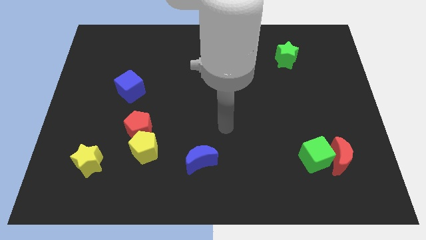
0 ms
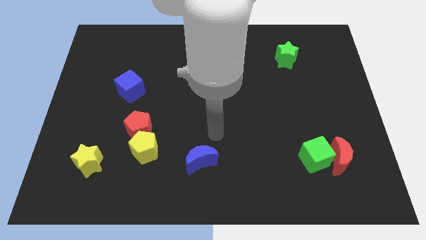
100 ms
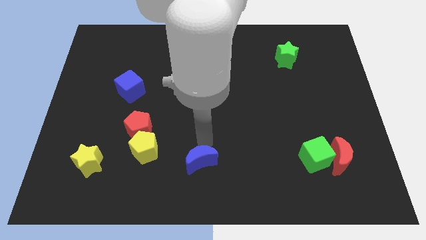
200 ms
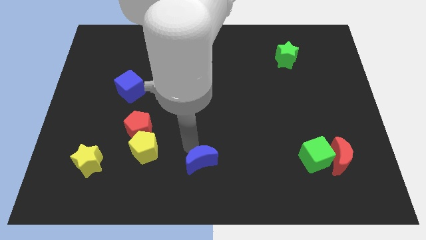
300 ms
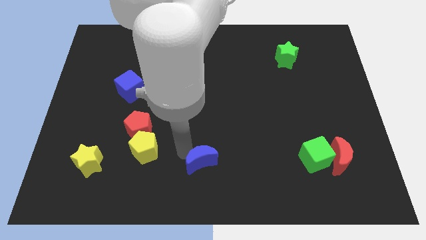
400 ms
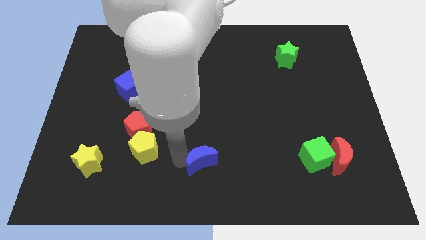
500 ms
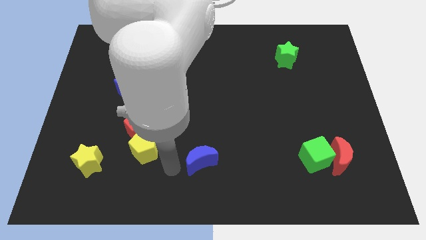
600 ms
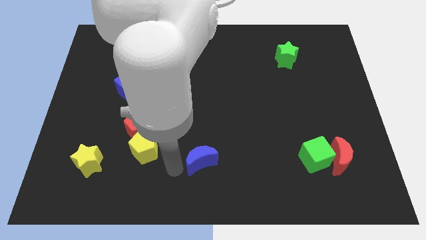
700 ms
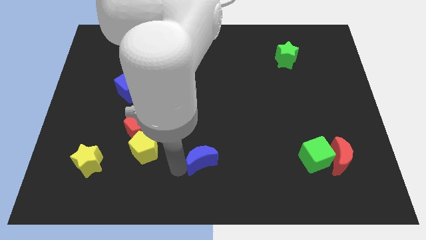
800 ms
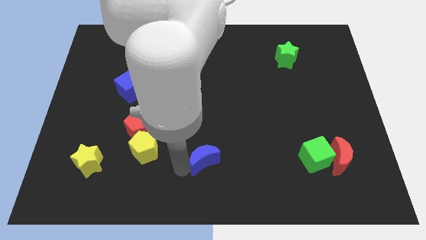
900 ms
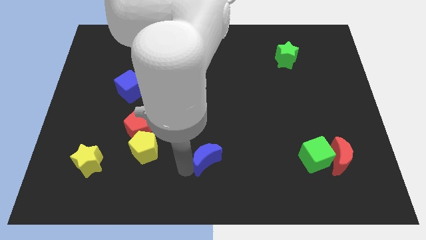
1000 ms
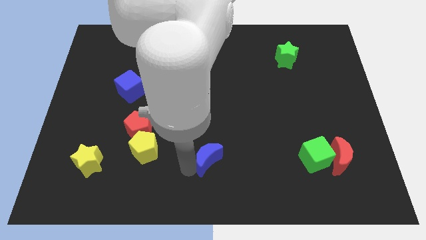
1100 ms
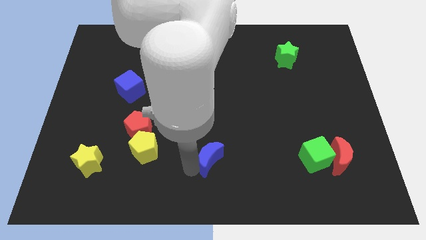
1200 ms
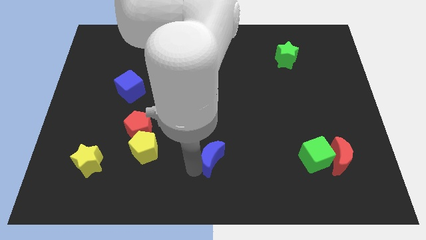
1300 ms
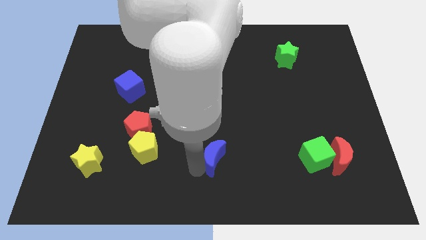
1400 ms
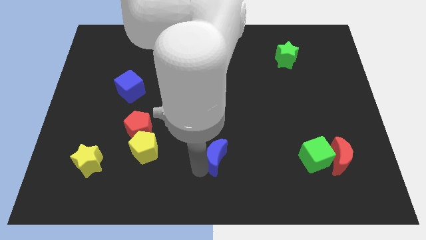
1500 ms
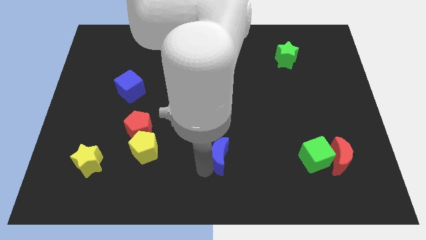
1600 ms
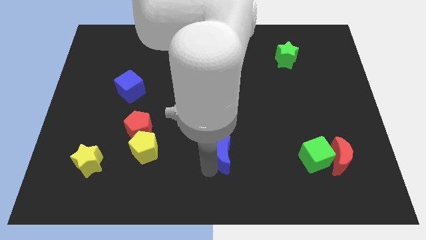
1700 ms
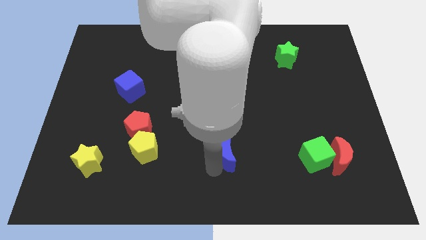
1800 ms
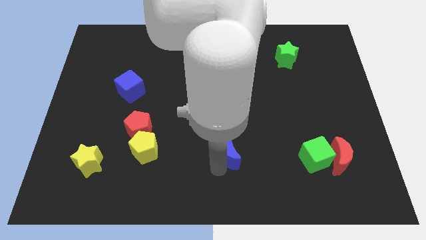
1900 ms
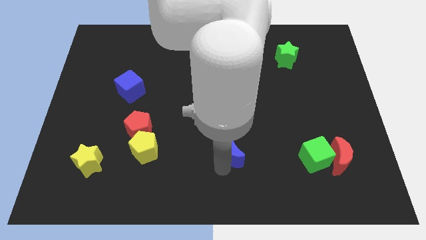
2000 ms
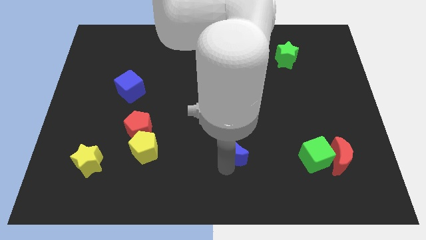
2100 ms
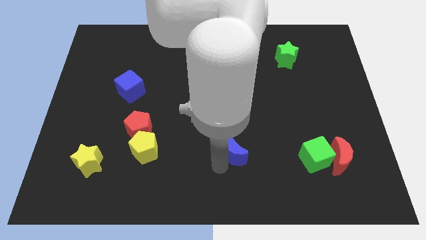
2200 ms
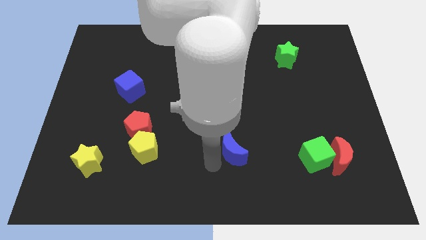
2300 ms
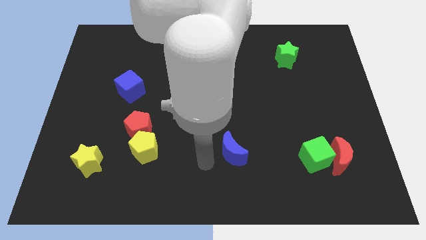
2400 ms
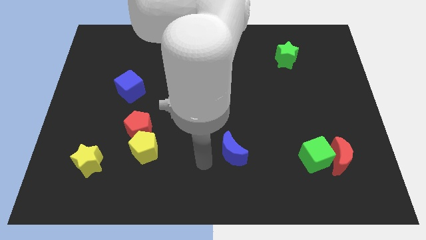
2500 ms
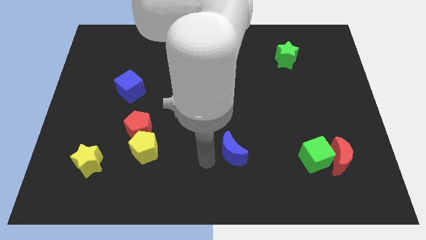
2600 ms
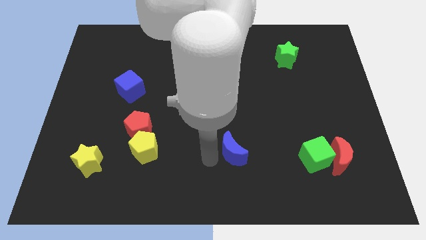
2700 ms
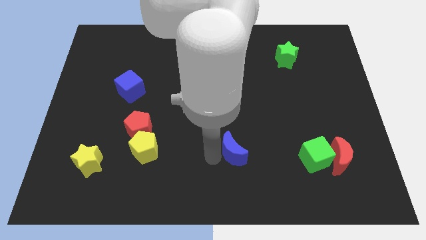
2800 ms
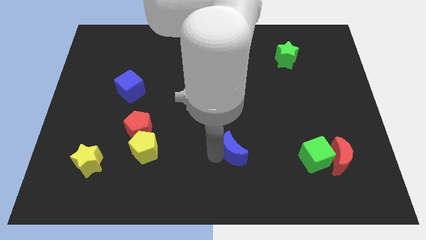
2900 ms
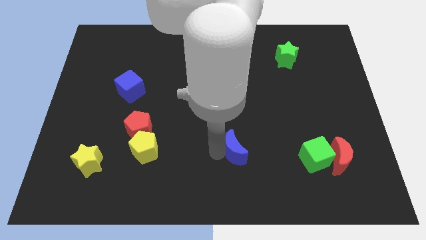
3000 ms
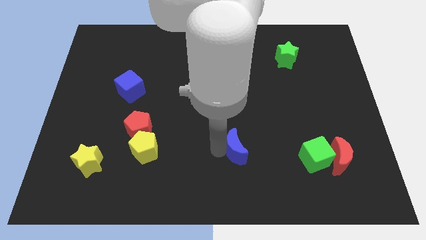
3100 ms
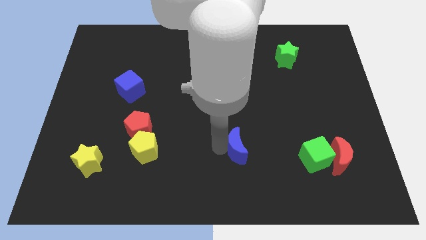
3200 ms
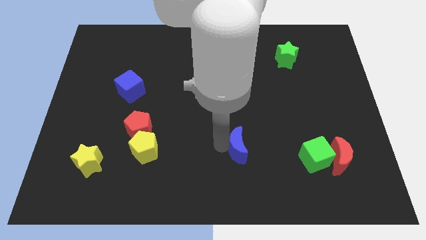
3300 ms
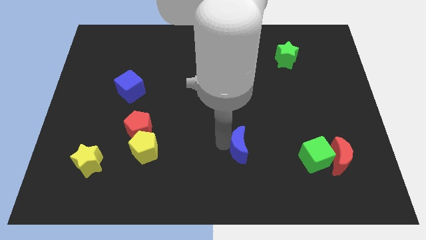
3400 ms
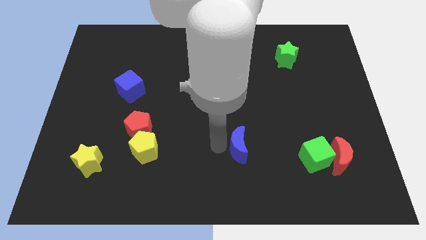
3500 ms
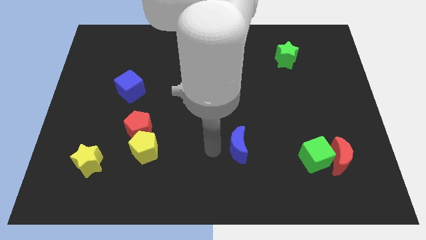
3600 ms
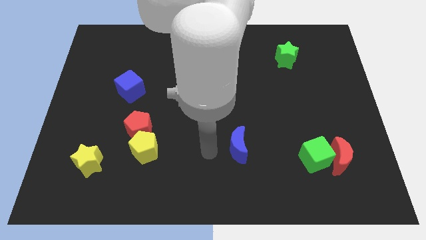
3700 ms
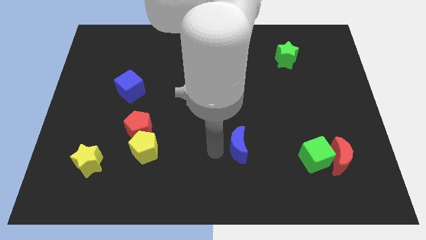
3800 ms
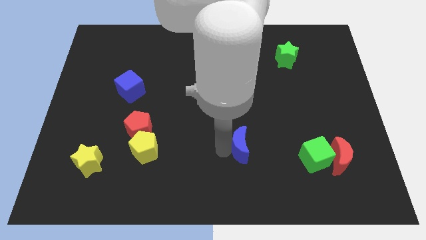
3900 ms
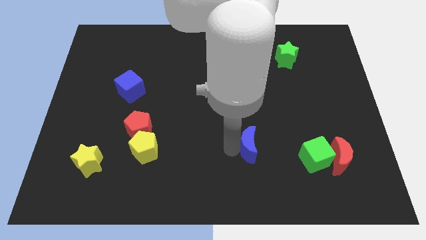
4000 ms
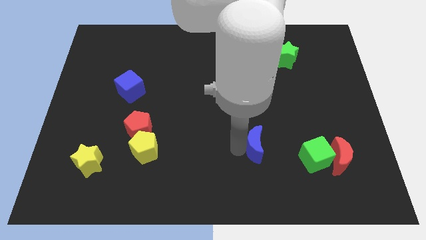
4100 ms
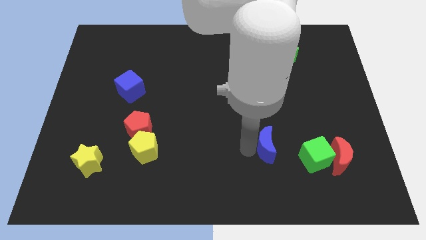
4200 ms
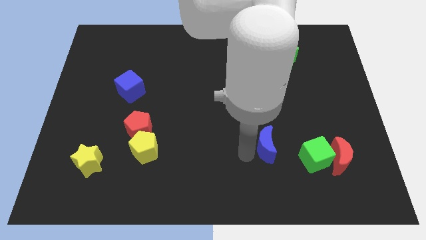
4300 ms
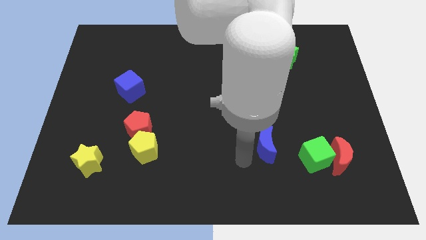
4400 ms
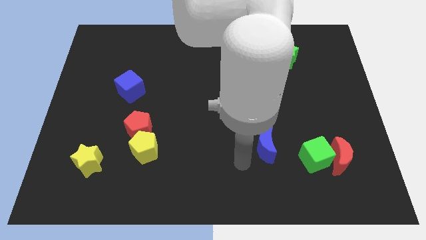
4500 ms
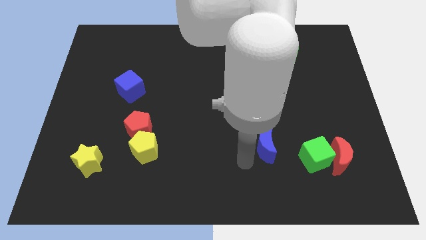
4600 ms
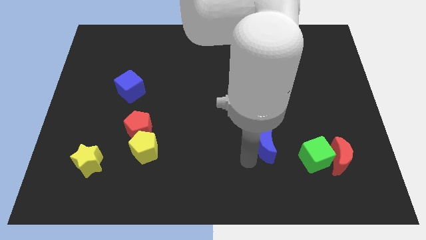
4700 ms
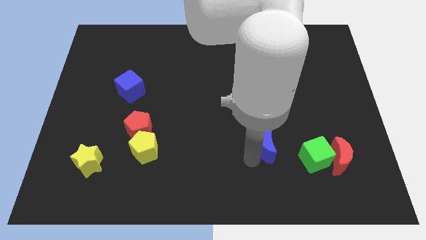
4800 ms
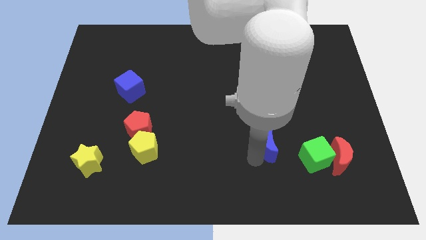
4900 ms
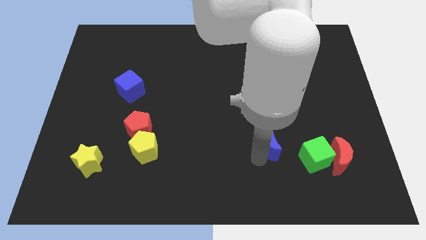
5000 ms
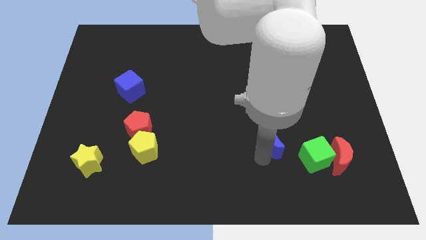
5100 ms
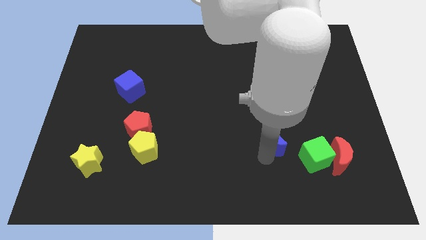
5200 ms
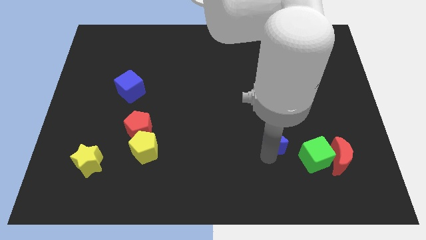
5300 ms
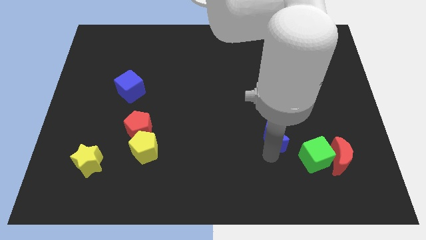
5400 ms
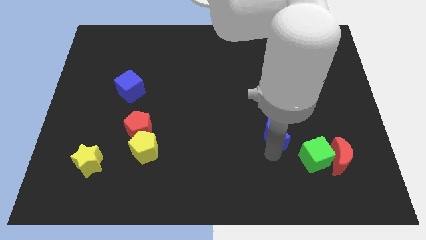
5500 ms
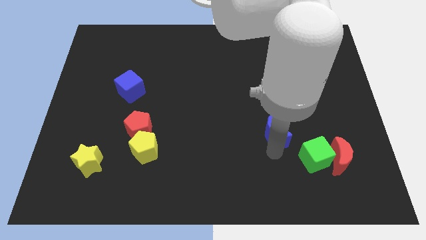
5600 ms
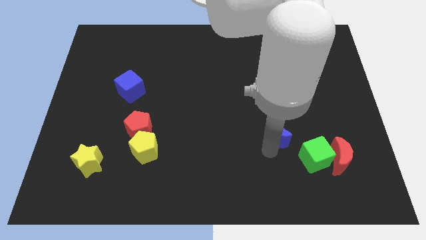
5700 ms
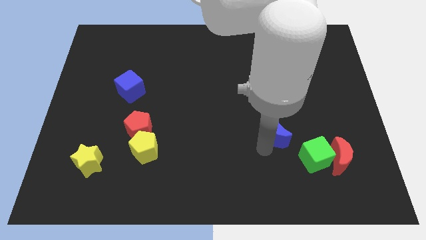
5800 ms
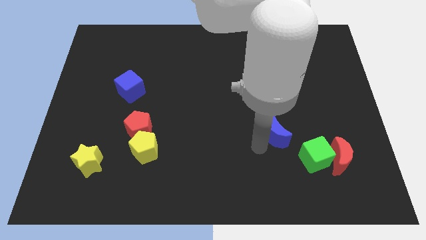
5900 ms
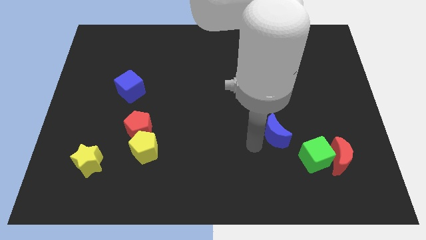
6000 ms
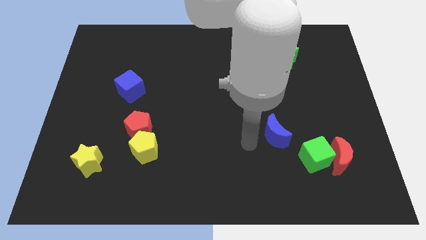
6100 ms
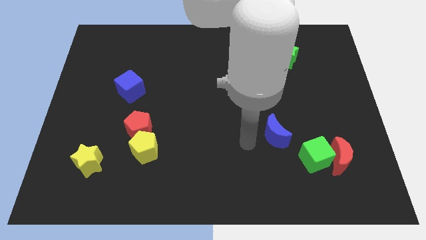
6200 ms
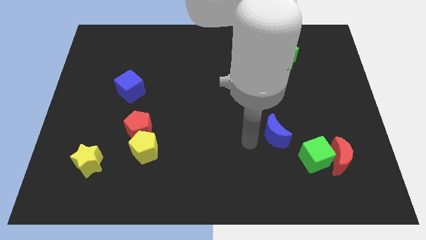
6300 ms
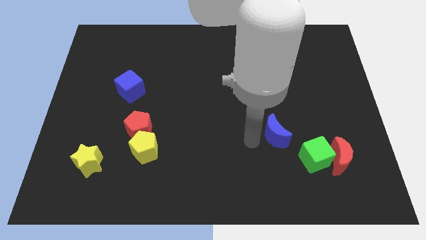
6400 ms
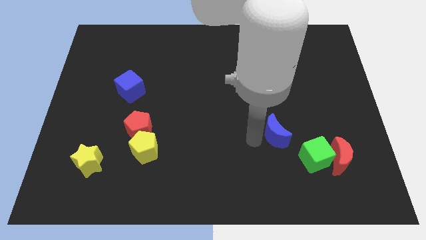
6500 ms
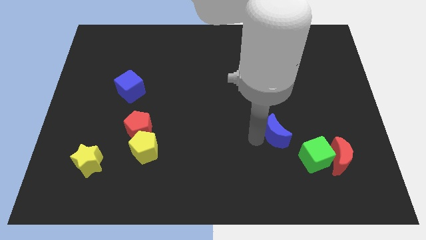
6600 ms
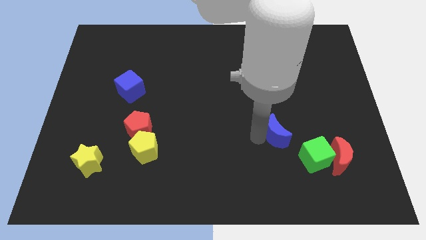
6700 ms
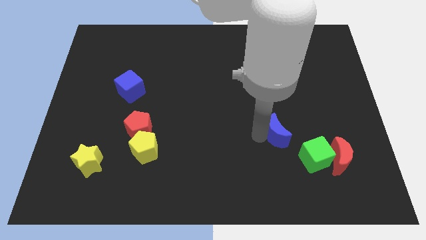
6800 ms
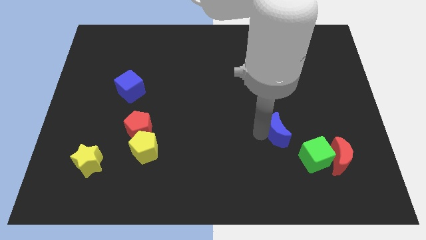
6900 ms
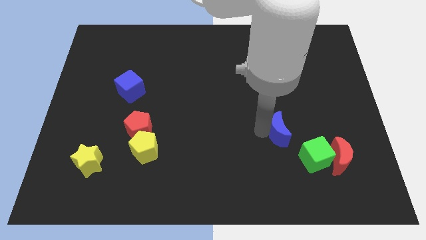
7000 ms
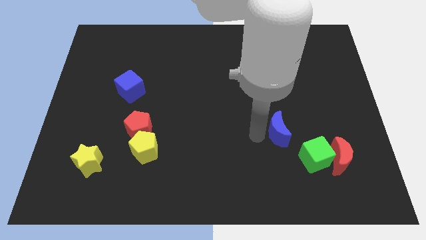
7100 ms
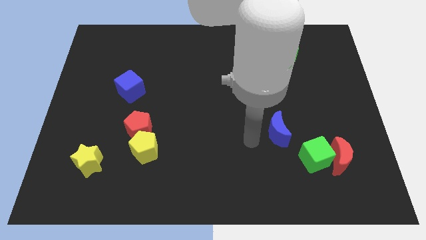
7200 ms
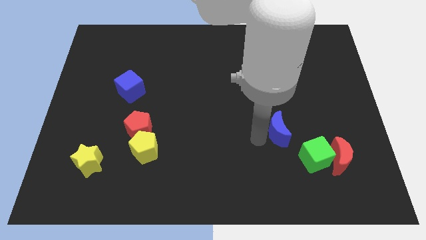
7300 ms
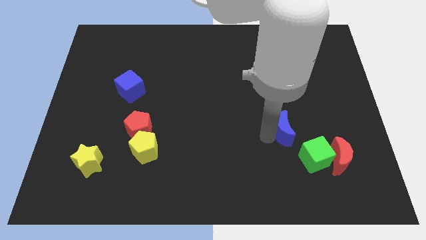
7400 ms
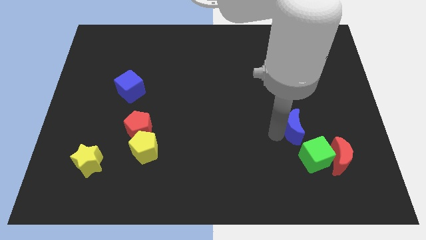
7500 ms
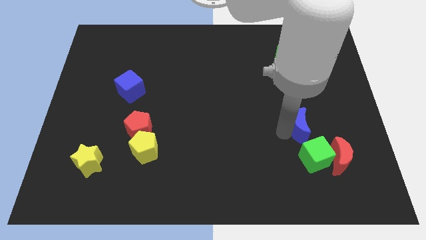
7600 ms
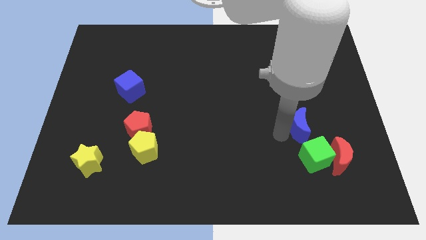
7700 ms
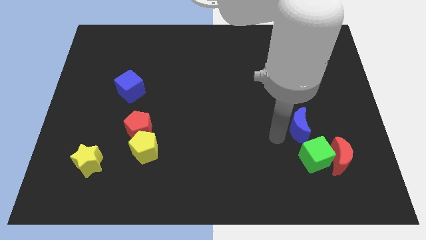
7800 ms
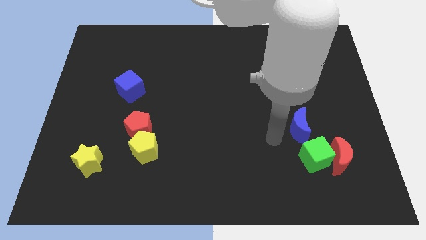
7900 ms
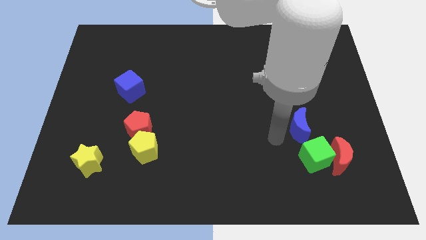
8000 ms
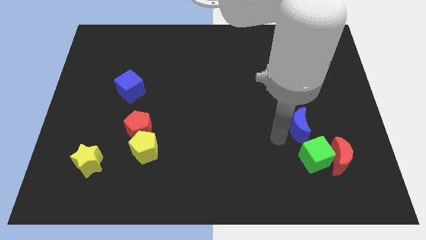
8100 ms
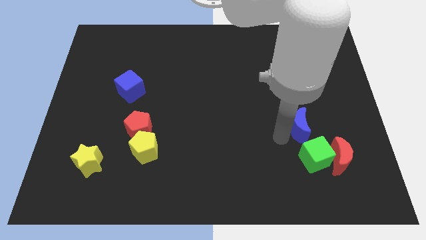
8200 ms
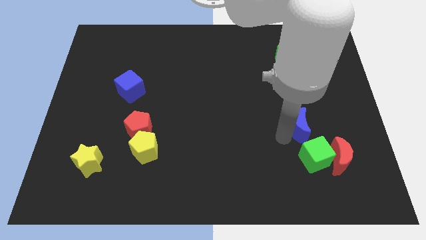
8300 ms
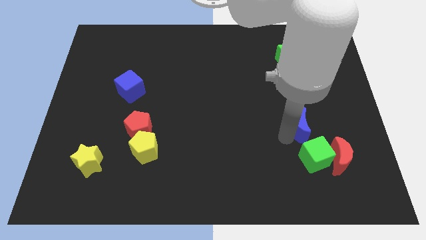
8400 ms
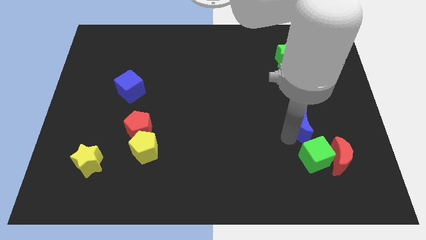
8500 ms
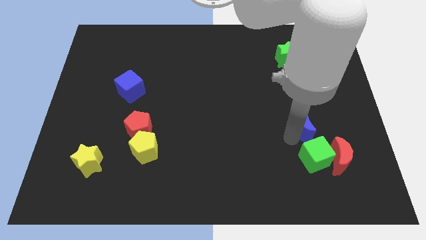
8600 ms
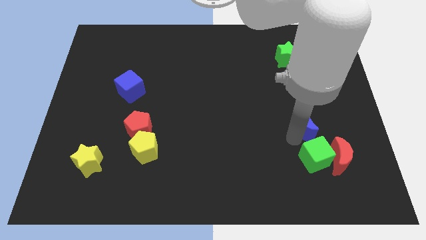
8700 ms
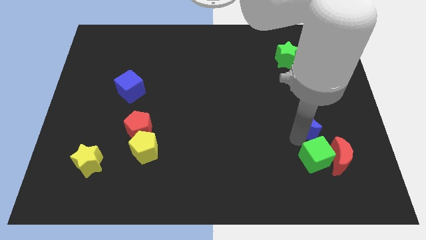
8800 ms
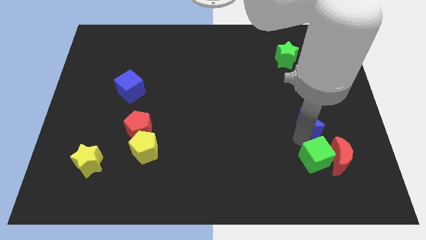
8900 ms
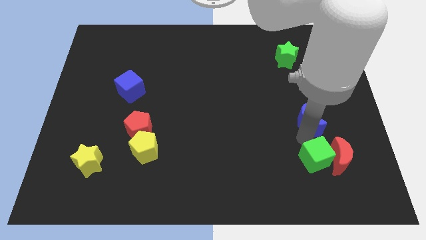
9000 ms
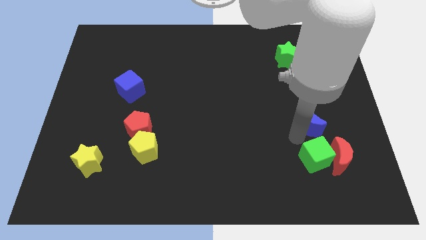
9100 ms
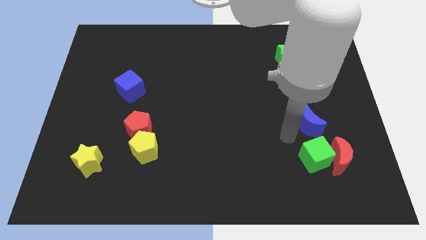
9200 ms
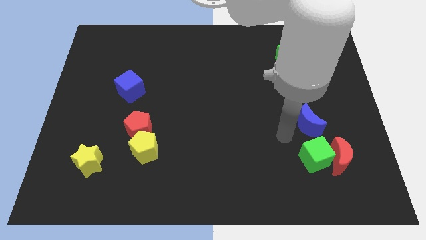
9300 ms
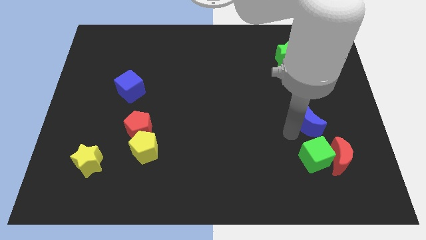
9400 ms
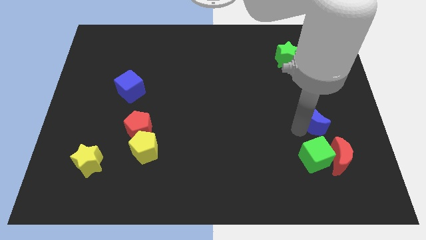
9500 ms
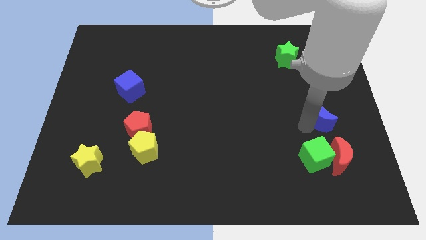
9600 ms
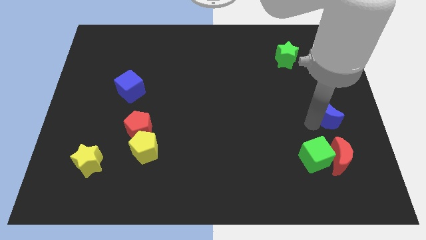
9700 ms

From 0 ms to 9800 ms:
push the blue moon to the right side
